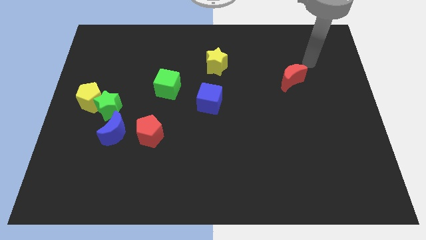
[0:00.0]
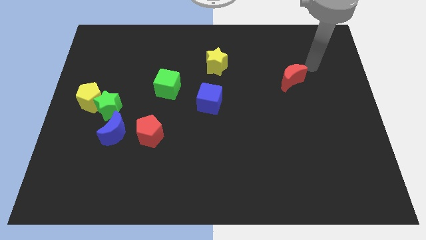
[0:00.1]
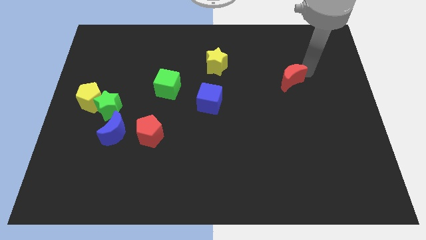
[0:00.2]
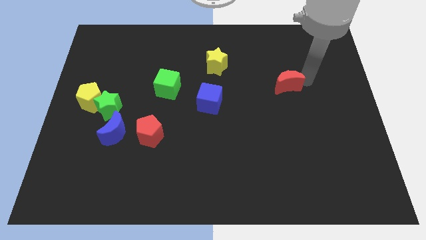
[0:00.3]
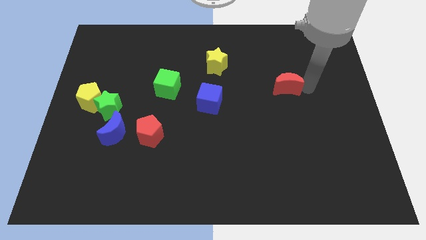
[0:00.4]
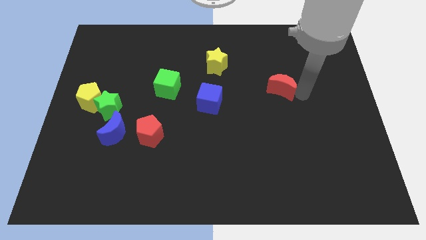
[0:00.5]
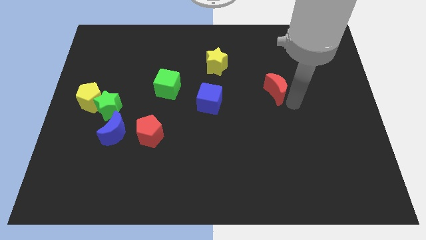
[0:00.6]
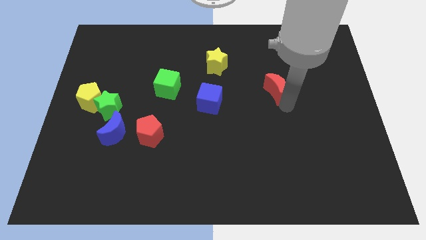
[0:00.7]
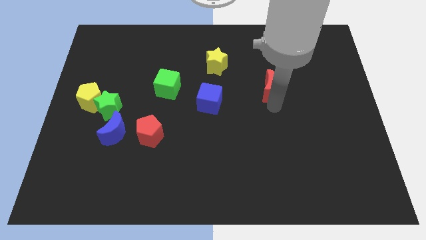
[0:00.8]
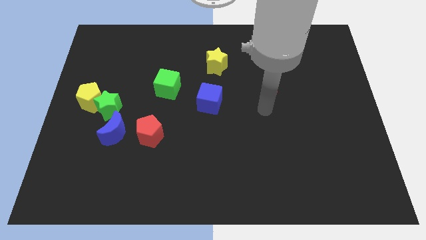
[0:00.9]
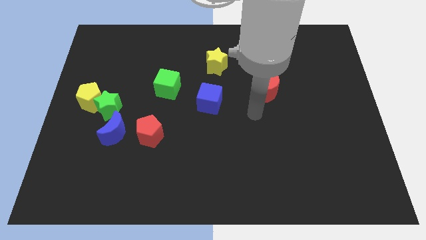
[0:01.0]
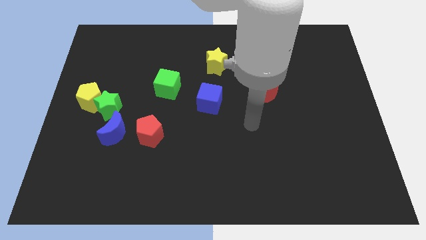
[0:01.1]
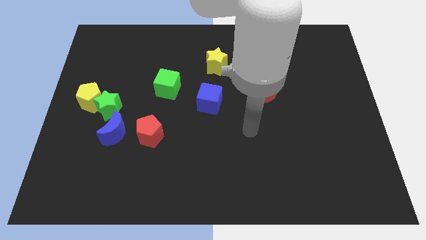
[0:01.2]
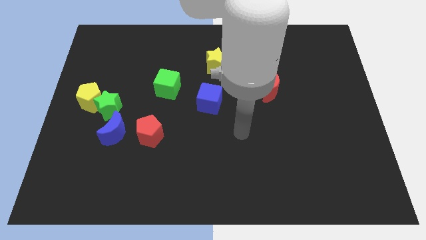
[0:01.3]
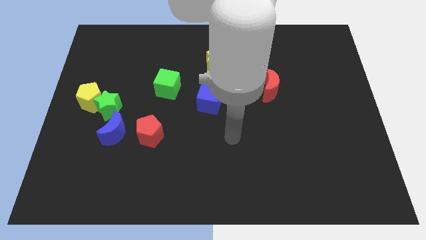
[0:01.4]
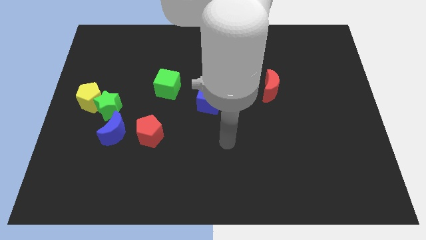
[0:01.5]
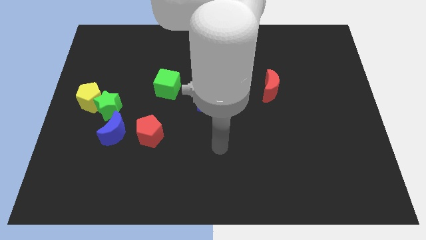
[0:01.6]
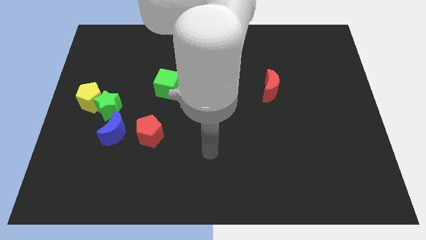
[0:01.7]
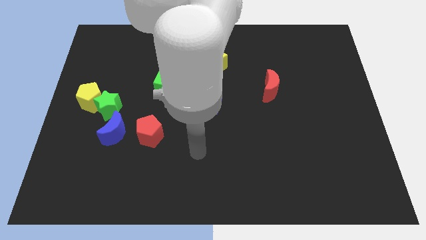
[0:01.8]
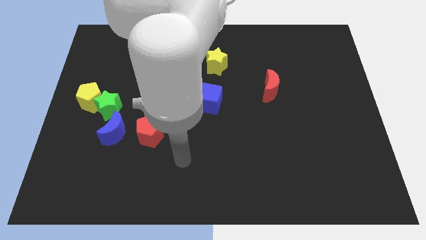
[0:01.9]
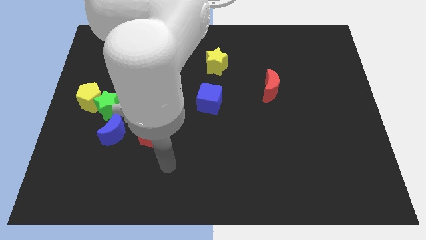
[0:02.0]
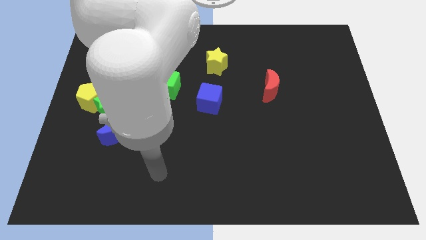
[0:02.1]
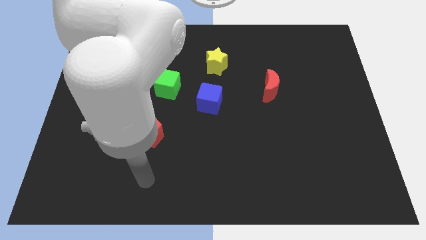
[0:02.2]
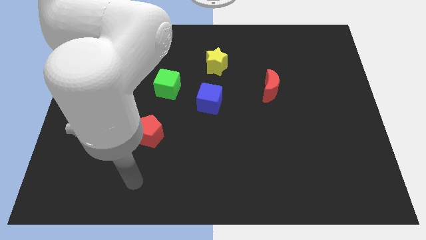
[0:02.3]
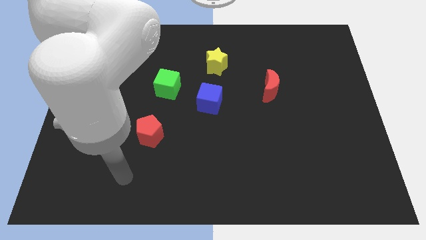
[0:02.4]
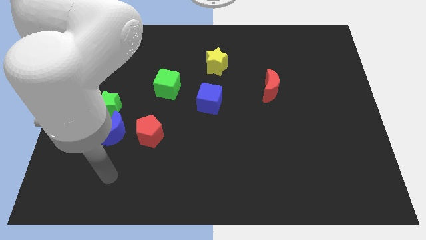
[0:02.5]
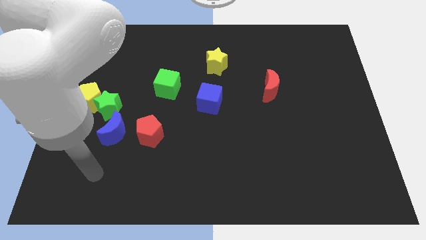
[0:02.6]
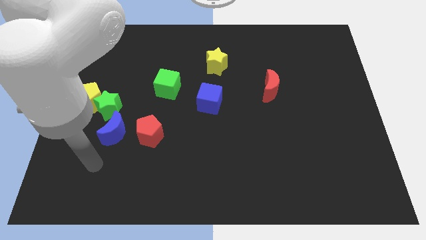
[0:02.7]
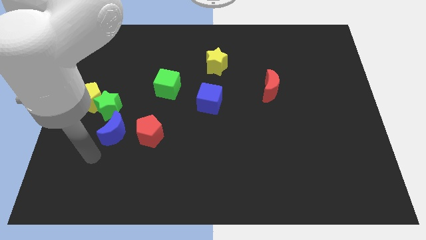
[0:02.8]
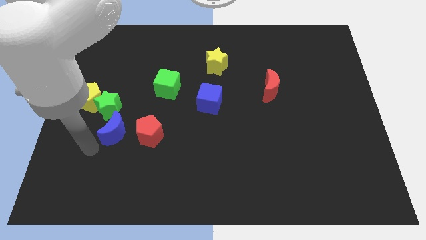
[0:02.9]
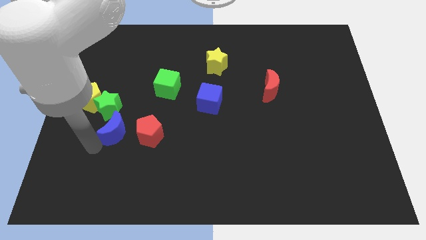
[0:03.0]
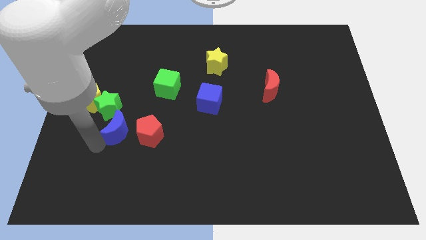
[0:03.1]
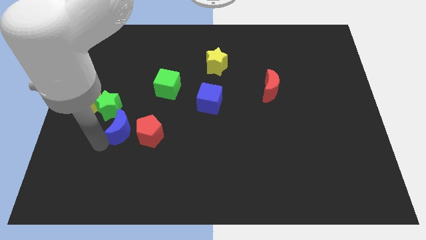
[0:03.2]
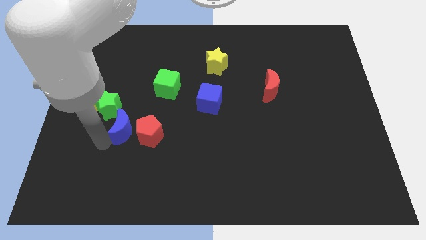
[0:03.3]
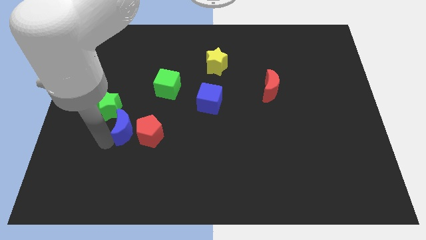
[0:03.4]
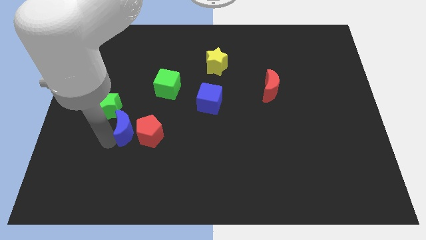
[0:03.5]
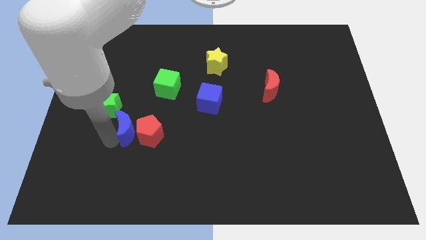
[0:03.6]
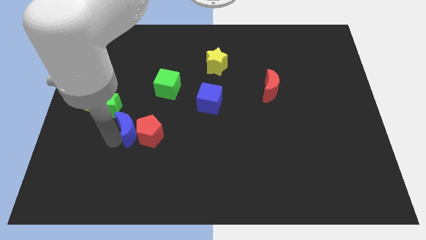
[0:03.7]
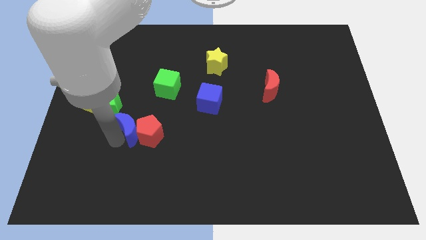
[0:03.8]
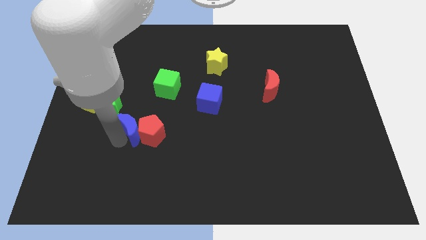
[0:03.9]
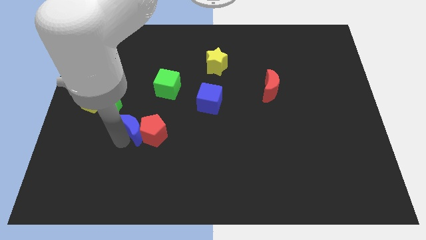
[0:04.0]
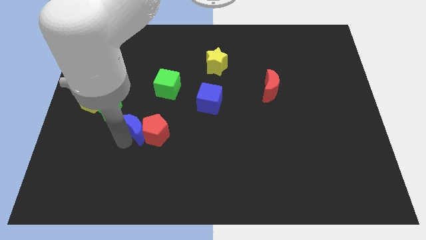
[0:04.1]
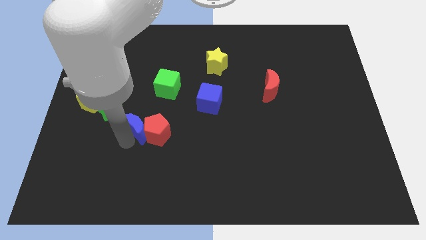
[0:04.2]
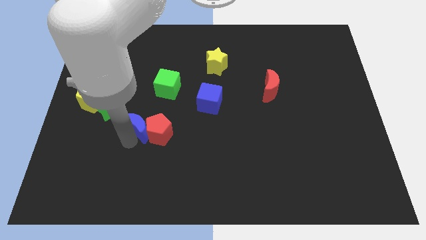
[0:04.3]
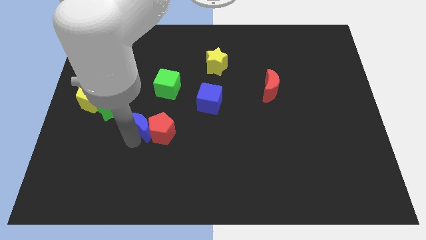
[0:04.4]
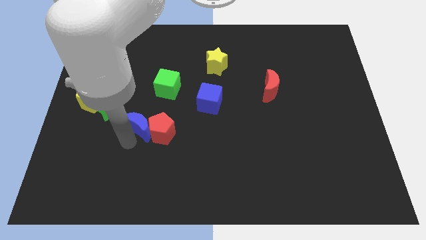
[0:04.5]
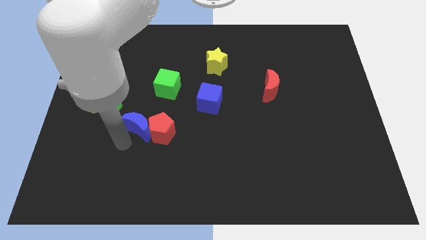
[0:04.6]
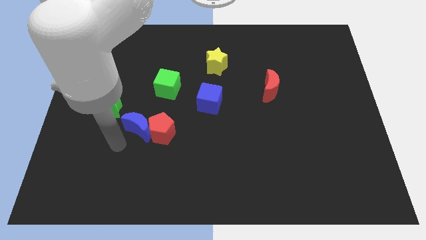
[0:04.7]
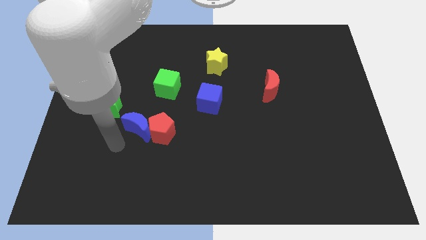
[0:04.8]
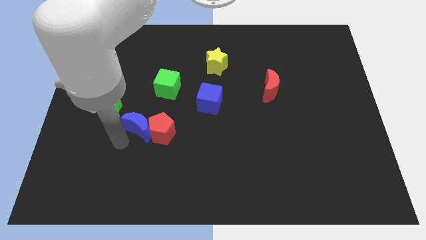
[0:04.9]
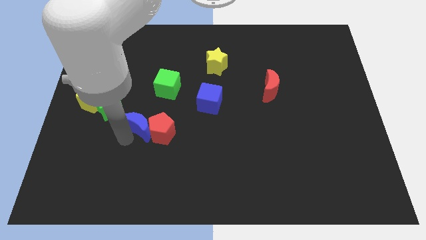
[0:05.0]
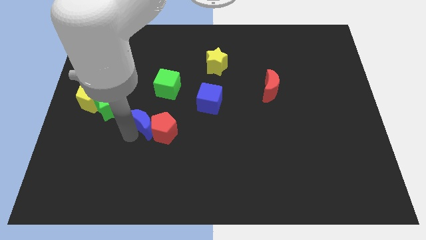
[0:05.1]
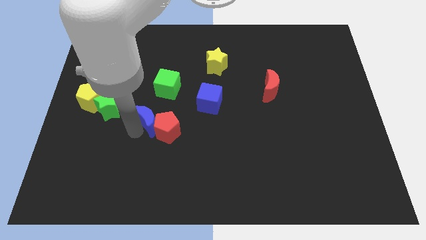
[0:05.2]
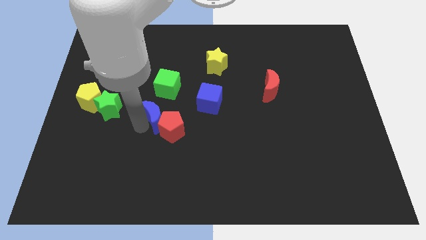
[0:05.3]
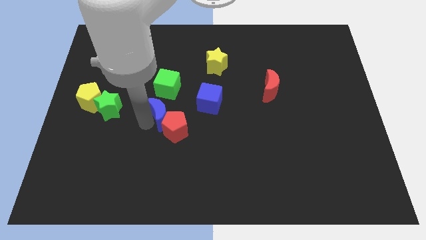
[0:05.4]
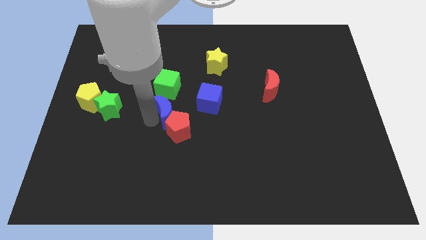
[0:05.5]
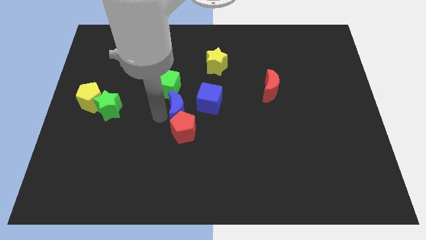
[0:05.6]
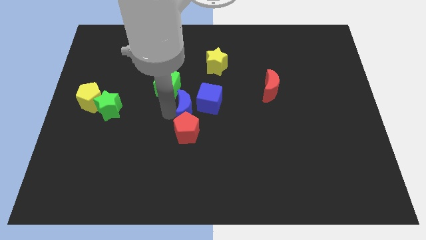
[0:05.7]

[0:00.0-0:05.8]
put the blue moon to the blue cube

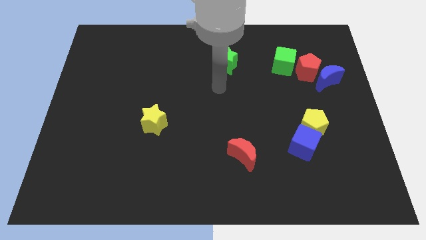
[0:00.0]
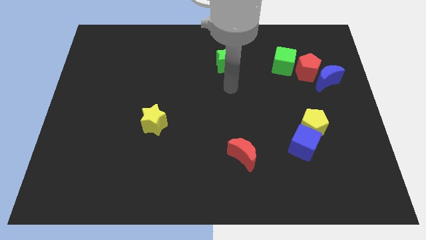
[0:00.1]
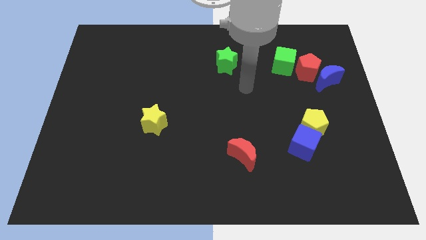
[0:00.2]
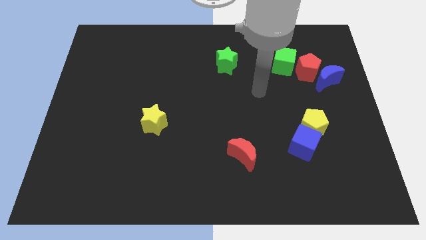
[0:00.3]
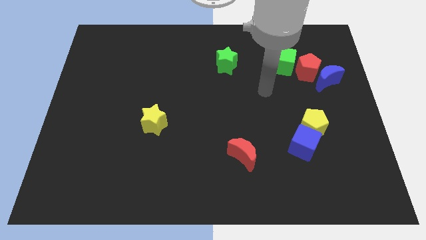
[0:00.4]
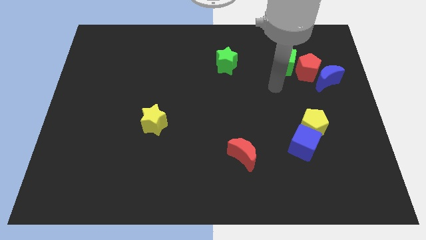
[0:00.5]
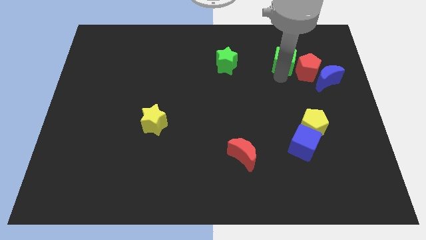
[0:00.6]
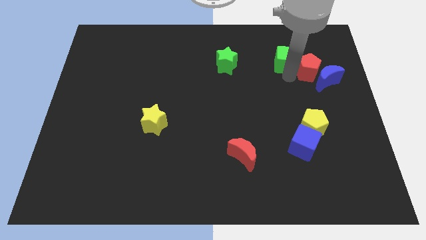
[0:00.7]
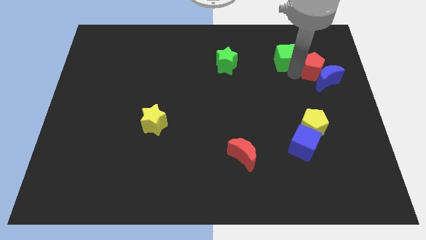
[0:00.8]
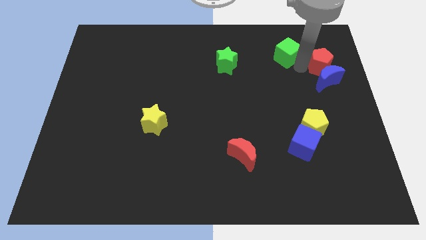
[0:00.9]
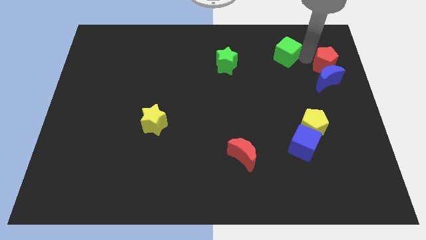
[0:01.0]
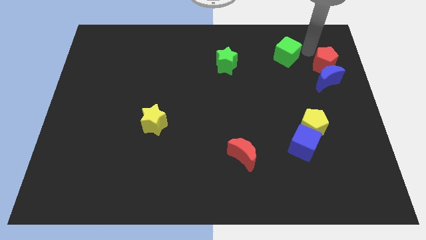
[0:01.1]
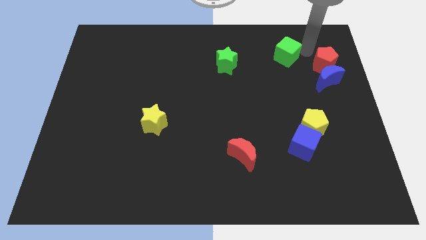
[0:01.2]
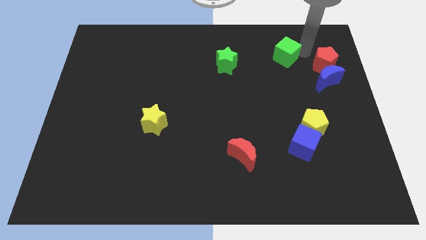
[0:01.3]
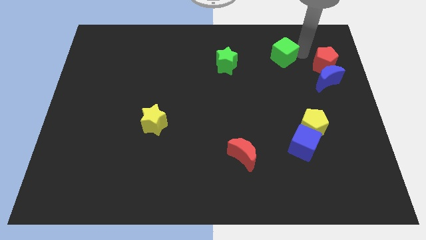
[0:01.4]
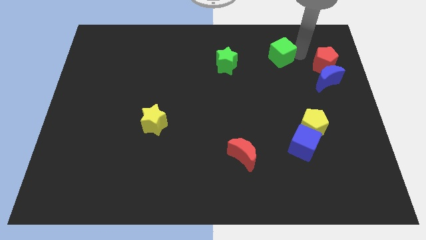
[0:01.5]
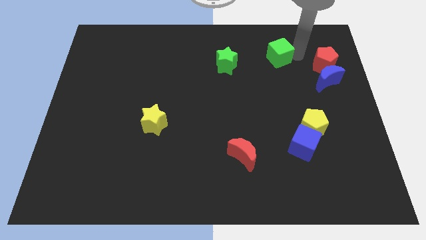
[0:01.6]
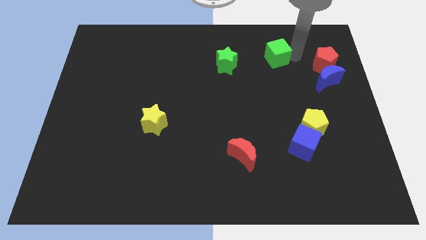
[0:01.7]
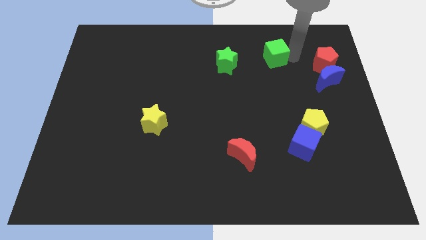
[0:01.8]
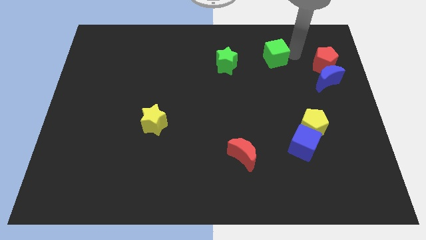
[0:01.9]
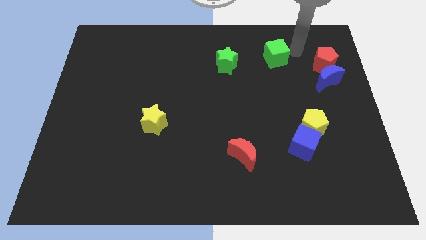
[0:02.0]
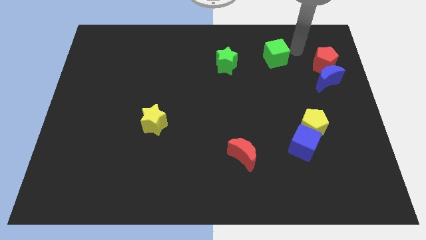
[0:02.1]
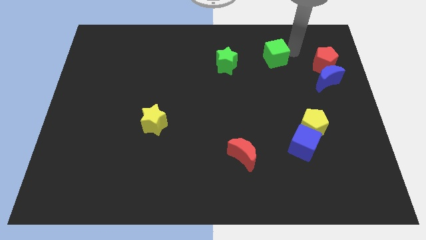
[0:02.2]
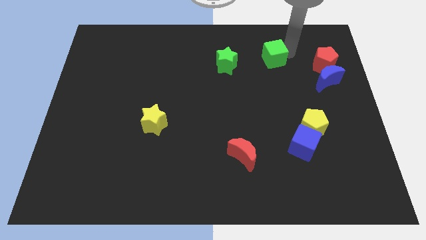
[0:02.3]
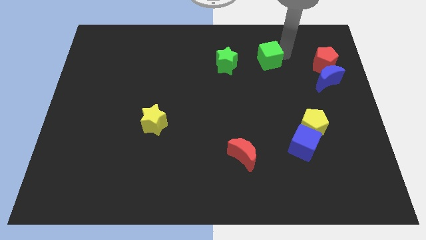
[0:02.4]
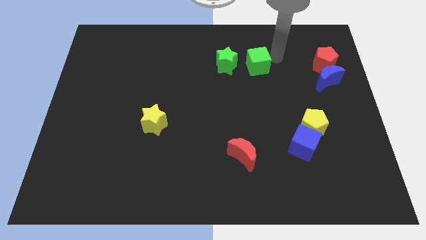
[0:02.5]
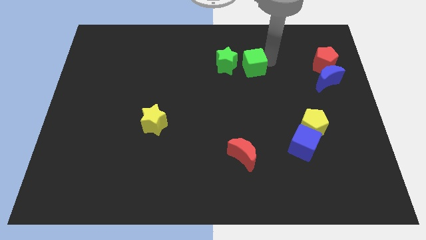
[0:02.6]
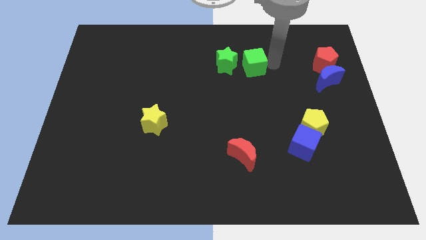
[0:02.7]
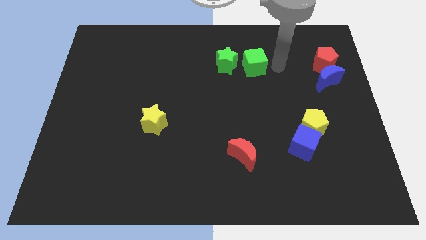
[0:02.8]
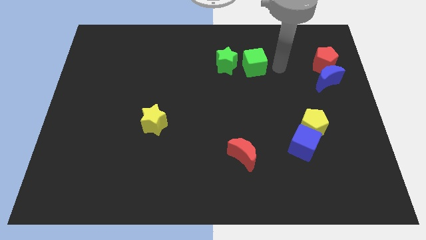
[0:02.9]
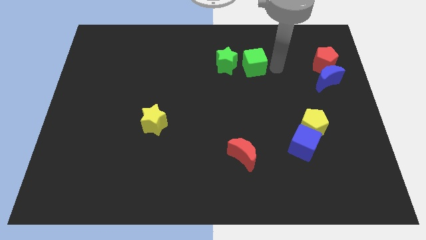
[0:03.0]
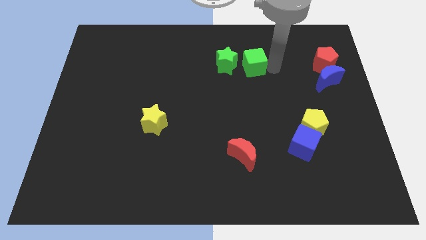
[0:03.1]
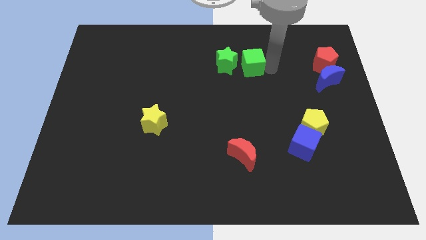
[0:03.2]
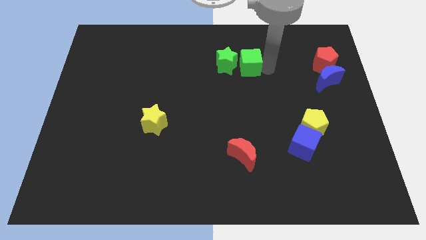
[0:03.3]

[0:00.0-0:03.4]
push the green cube next to the green star
